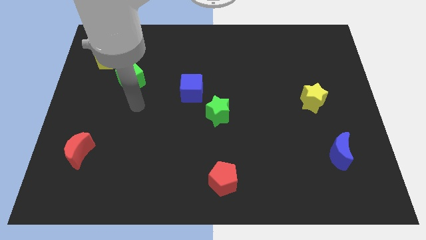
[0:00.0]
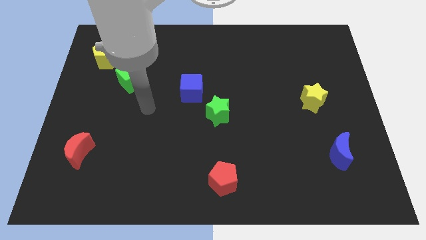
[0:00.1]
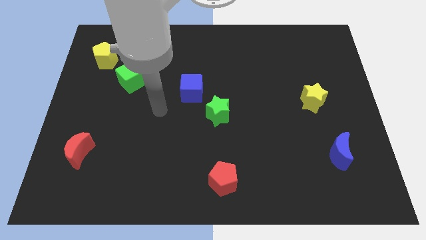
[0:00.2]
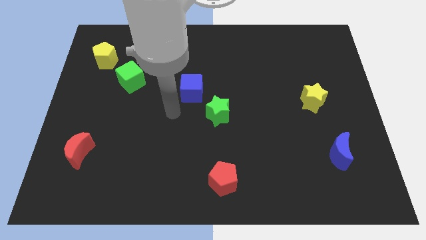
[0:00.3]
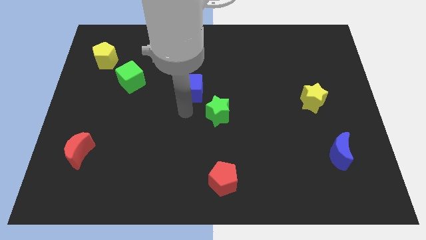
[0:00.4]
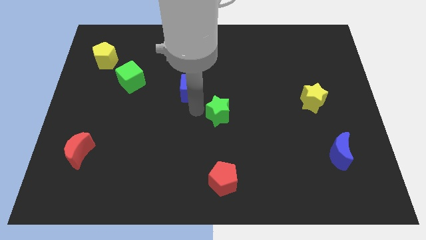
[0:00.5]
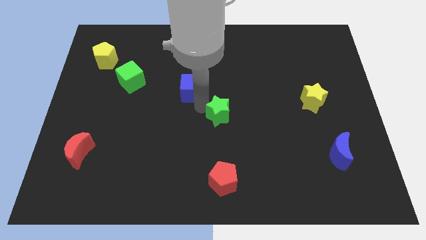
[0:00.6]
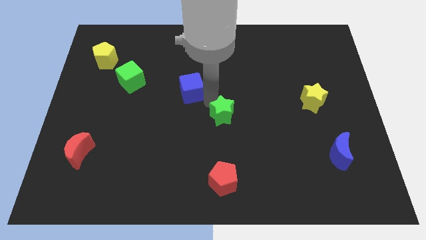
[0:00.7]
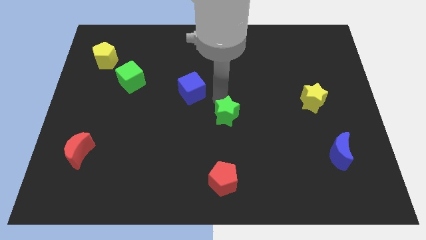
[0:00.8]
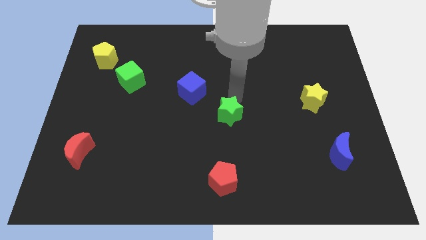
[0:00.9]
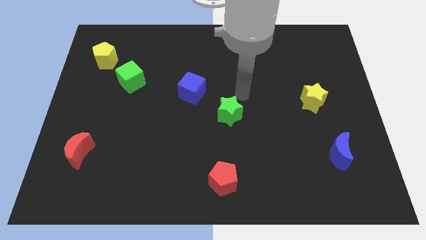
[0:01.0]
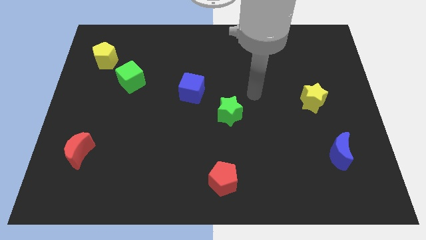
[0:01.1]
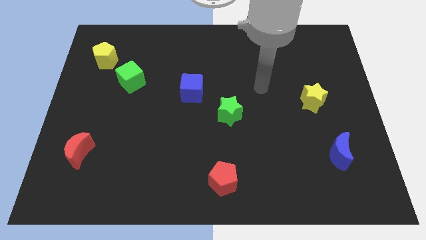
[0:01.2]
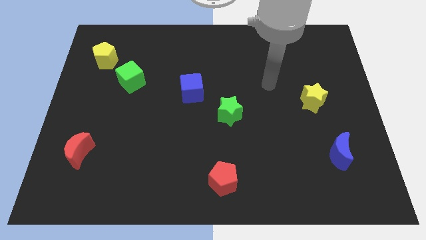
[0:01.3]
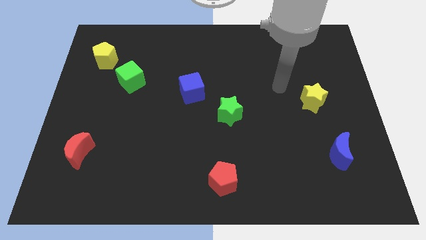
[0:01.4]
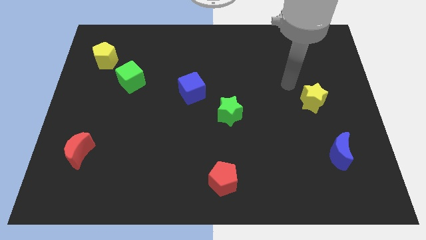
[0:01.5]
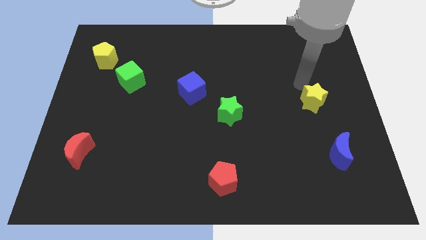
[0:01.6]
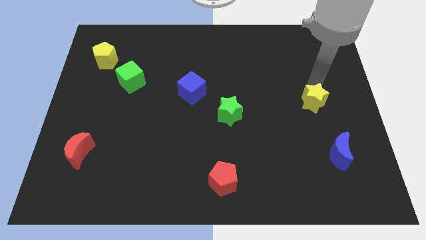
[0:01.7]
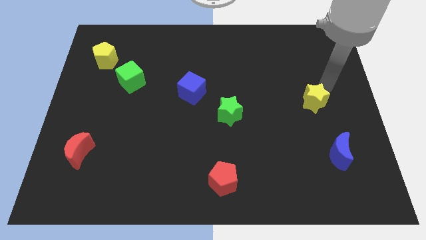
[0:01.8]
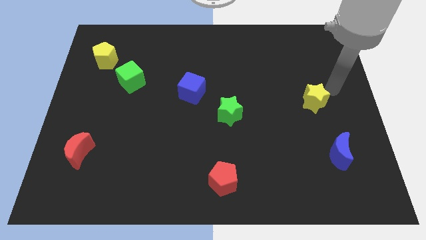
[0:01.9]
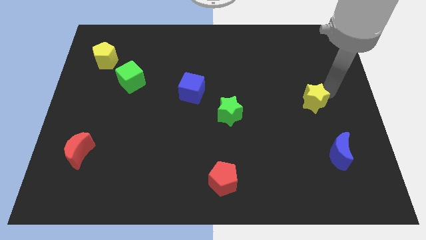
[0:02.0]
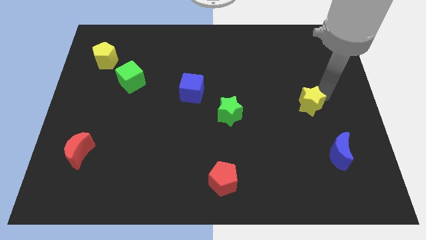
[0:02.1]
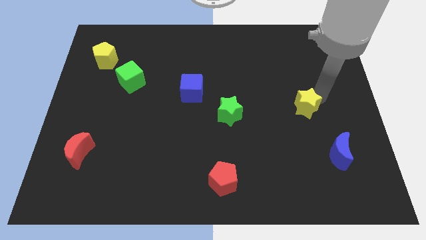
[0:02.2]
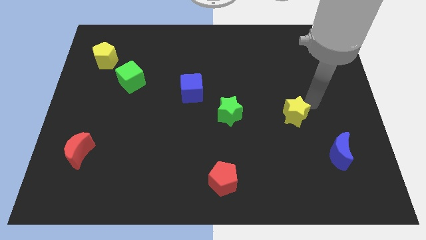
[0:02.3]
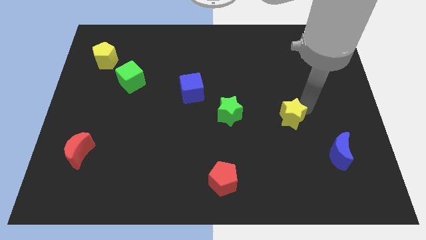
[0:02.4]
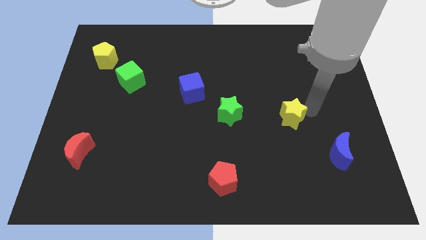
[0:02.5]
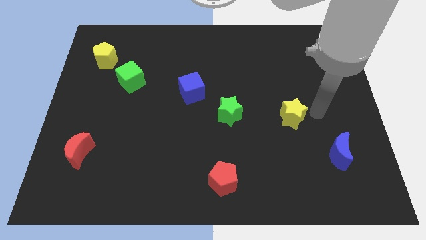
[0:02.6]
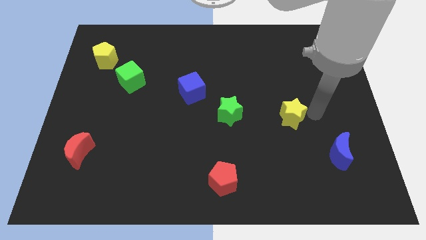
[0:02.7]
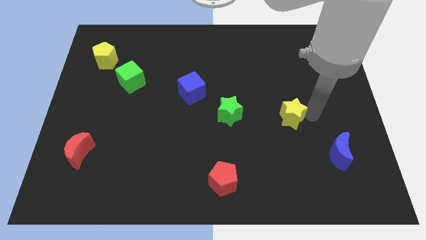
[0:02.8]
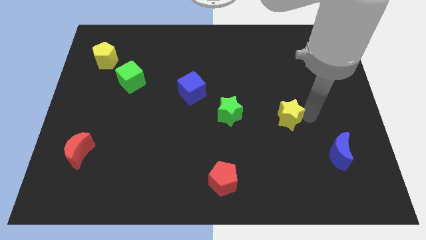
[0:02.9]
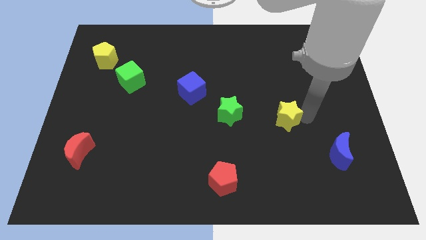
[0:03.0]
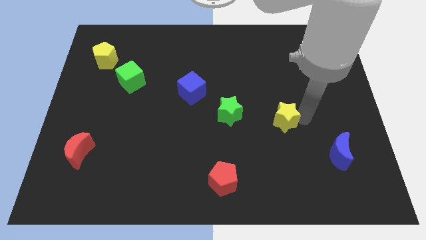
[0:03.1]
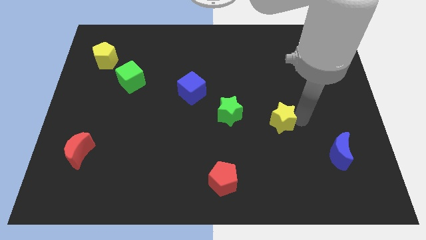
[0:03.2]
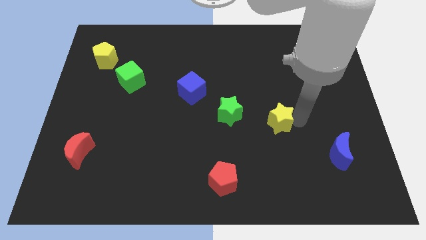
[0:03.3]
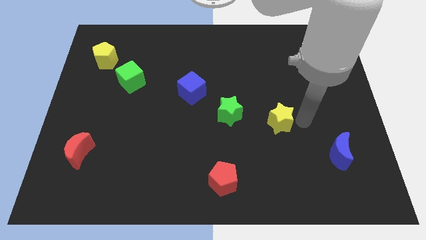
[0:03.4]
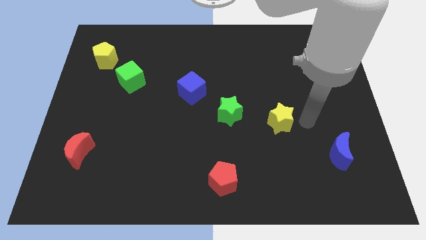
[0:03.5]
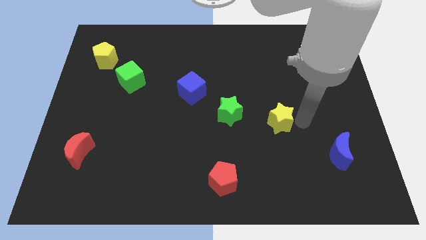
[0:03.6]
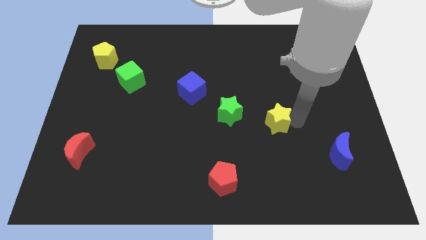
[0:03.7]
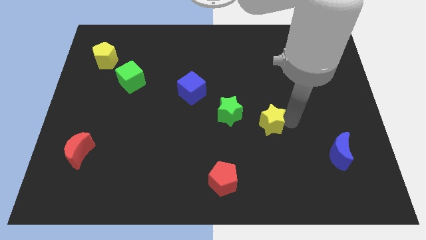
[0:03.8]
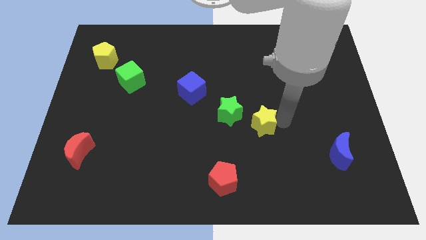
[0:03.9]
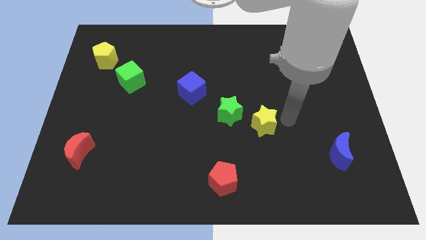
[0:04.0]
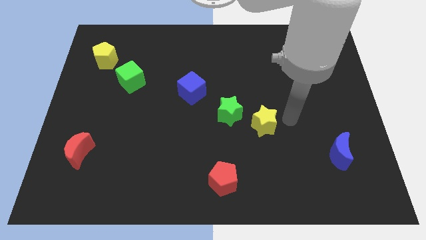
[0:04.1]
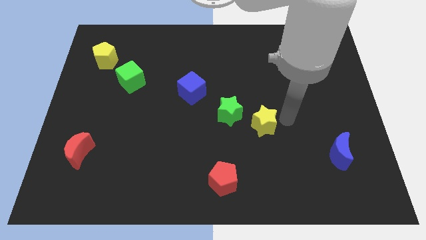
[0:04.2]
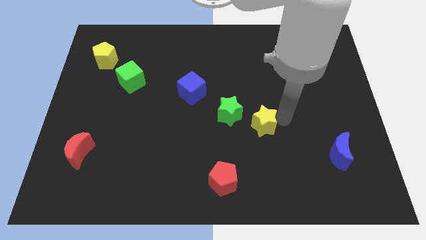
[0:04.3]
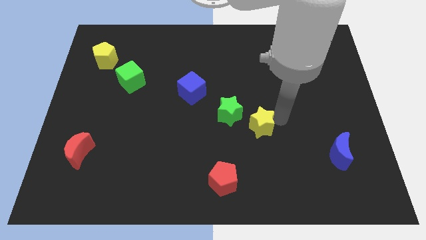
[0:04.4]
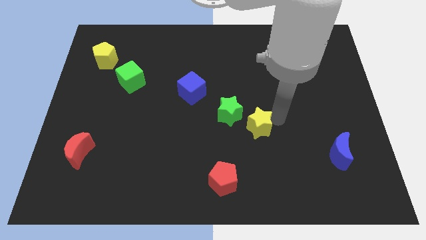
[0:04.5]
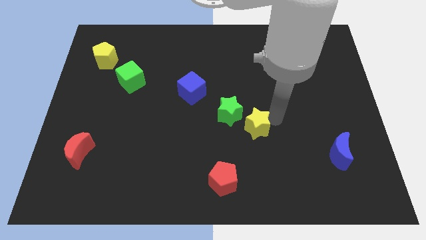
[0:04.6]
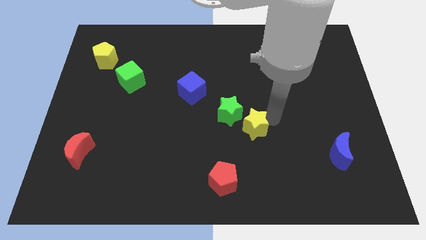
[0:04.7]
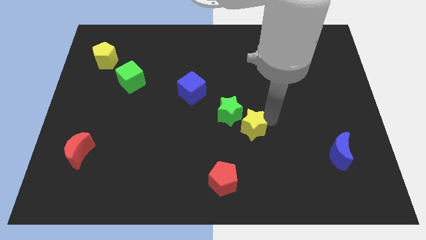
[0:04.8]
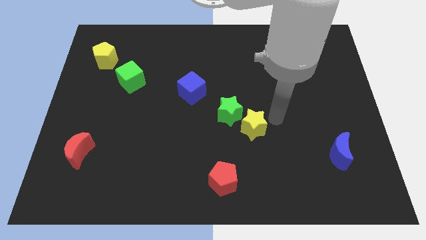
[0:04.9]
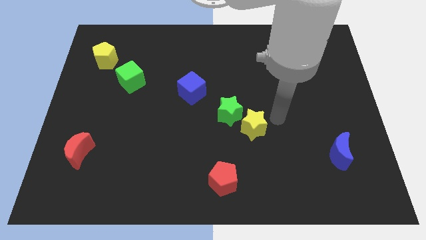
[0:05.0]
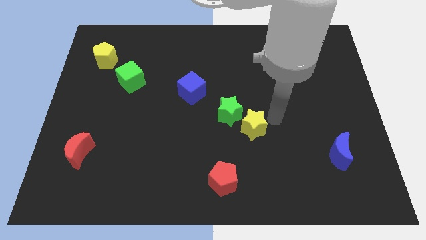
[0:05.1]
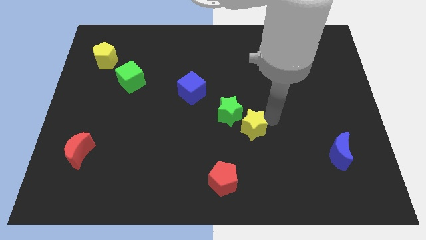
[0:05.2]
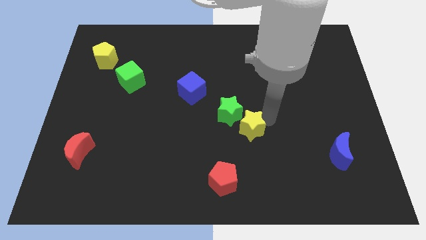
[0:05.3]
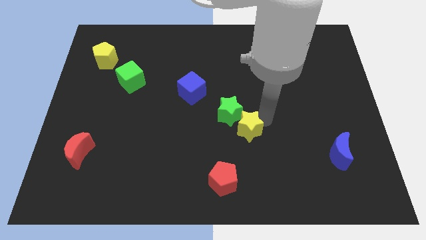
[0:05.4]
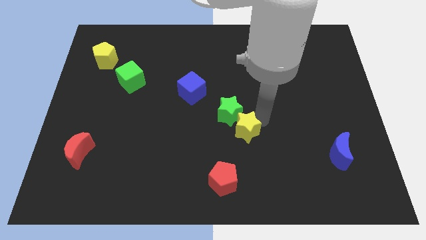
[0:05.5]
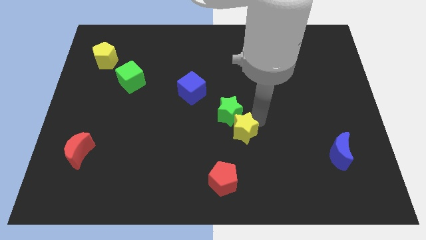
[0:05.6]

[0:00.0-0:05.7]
move the yellow star above the red pentagon

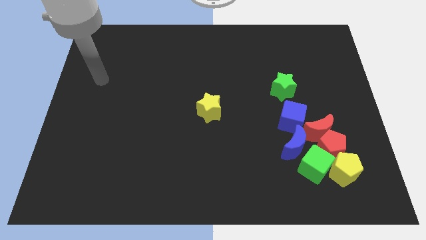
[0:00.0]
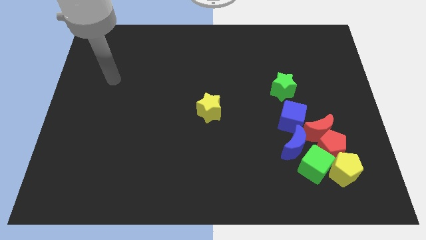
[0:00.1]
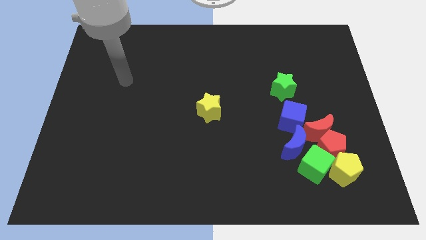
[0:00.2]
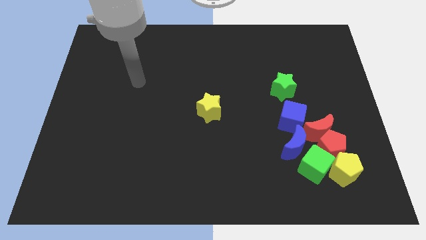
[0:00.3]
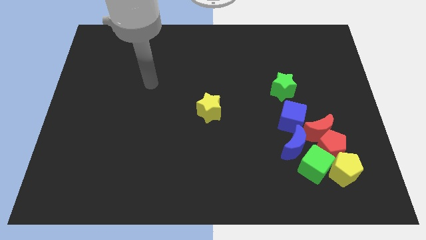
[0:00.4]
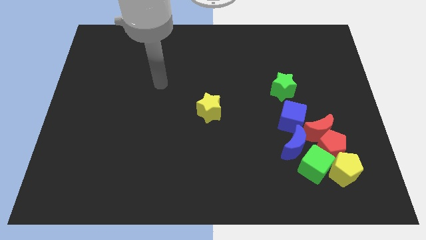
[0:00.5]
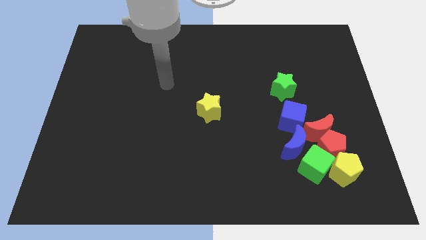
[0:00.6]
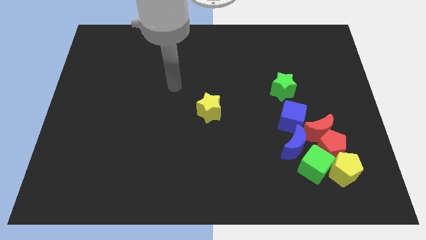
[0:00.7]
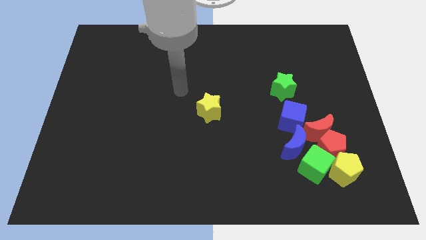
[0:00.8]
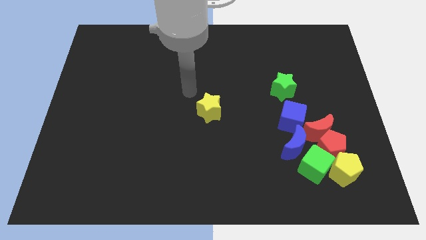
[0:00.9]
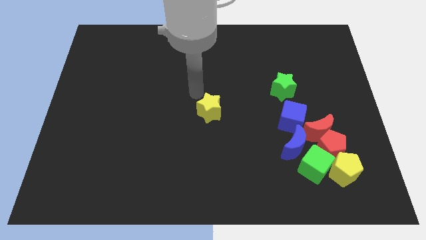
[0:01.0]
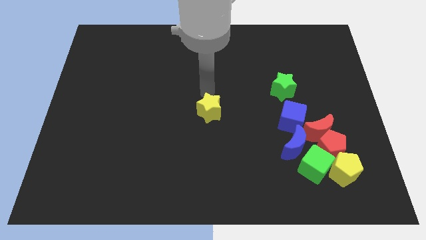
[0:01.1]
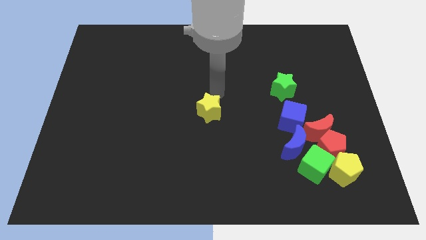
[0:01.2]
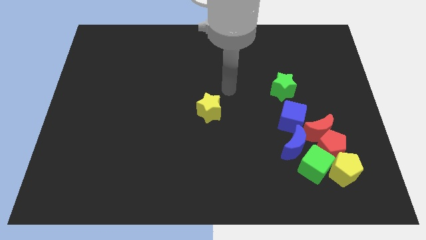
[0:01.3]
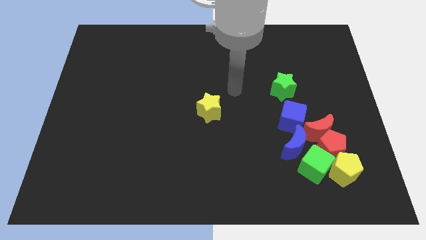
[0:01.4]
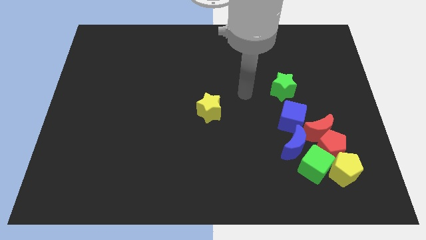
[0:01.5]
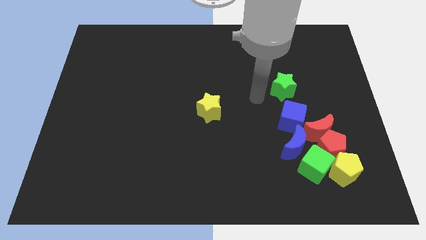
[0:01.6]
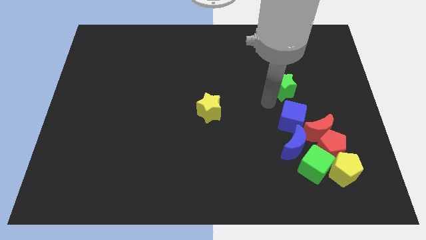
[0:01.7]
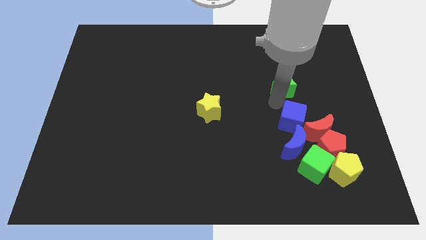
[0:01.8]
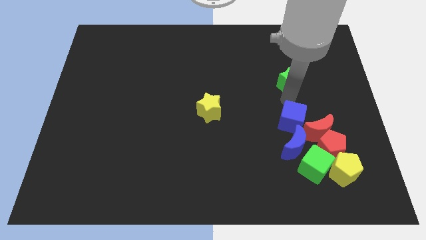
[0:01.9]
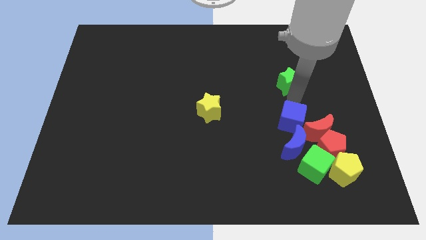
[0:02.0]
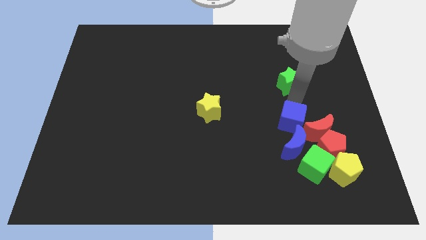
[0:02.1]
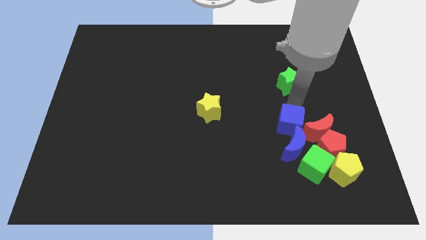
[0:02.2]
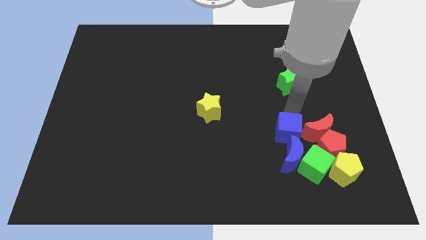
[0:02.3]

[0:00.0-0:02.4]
slide the blue cube diagonally up and to the left of the green cube
